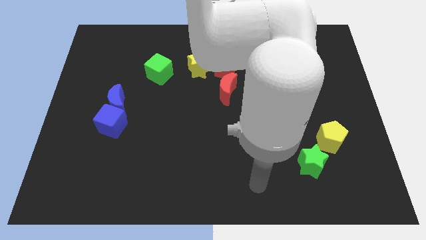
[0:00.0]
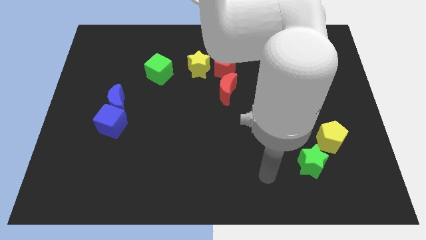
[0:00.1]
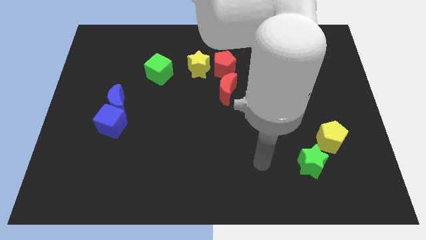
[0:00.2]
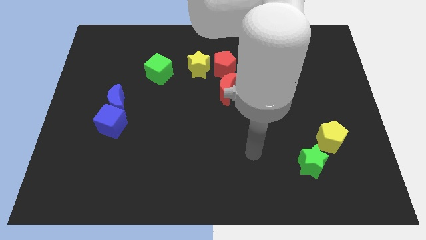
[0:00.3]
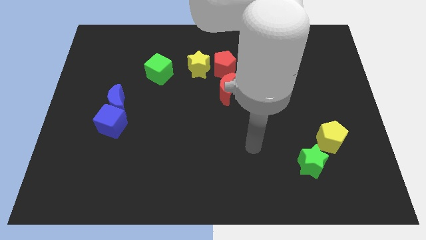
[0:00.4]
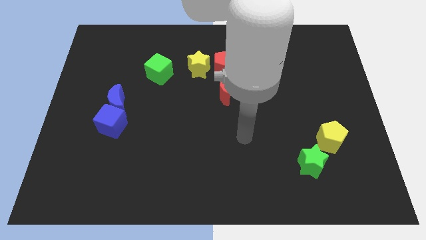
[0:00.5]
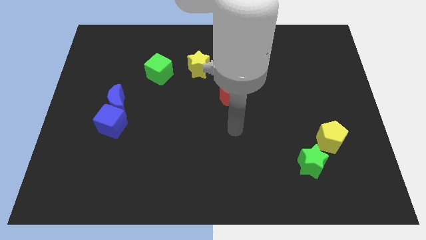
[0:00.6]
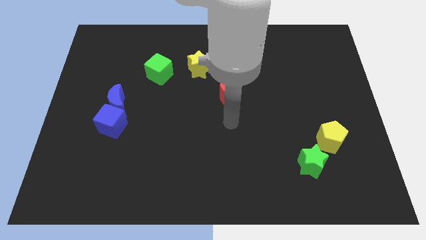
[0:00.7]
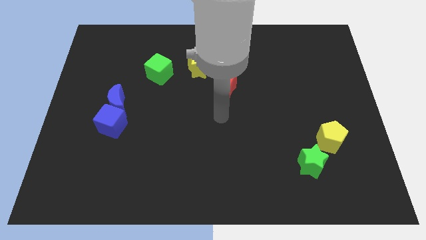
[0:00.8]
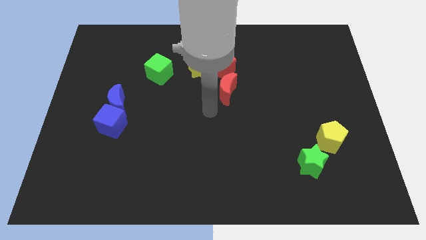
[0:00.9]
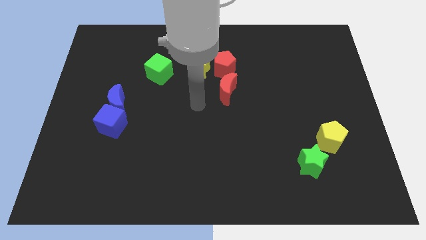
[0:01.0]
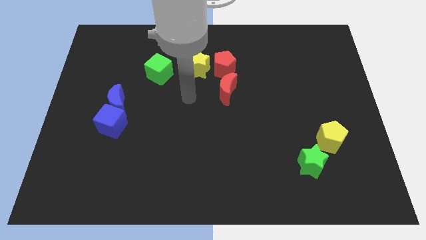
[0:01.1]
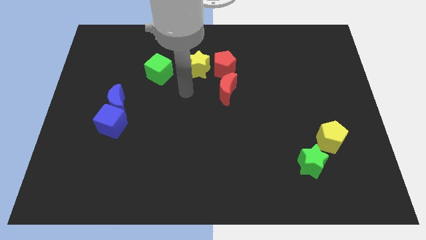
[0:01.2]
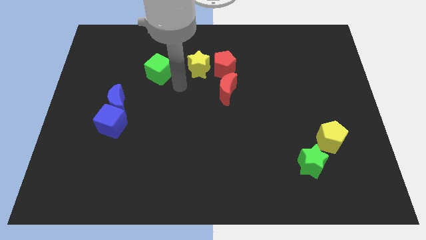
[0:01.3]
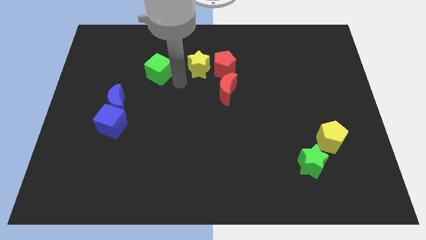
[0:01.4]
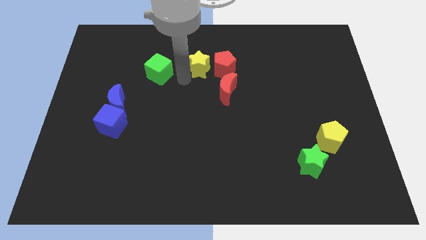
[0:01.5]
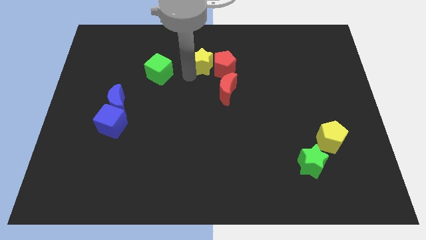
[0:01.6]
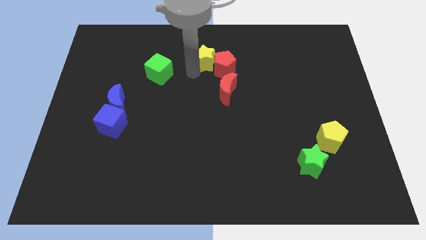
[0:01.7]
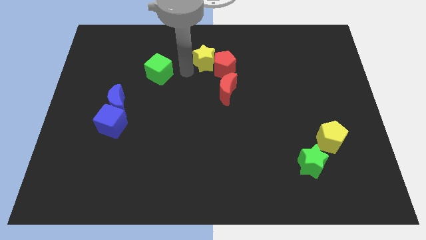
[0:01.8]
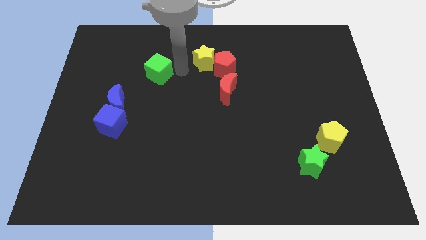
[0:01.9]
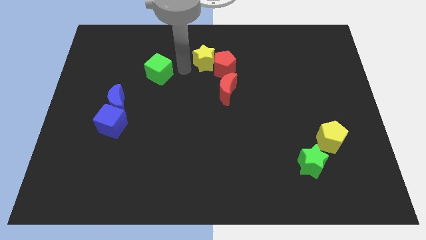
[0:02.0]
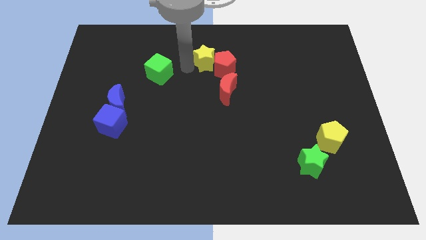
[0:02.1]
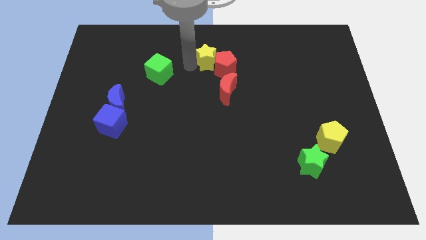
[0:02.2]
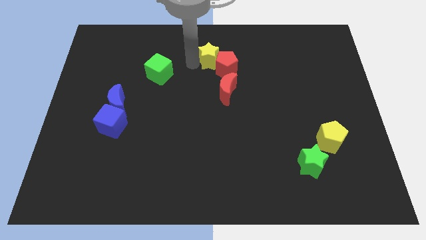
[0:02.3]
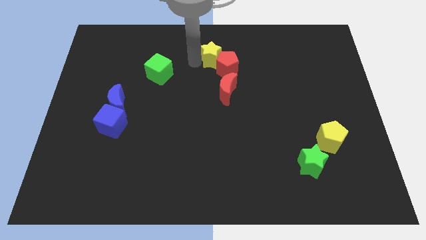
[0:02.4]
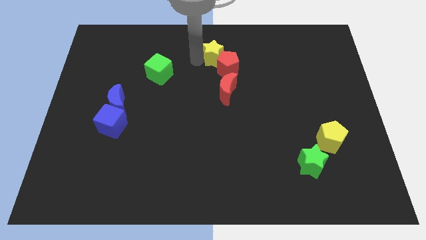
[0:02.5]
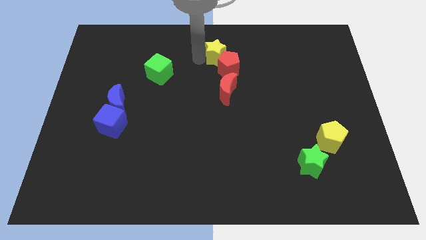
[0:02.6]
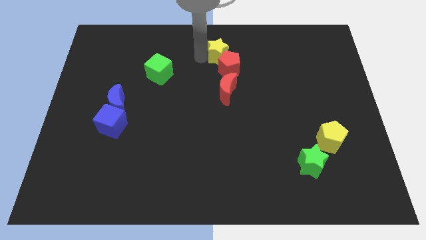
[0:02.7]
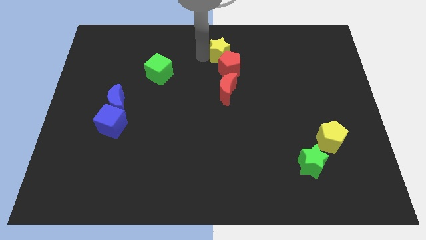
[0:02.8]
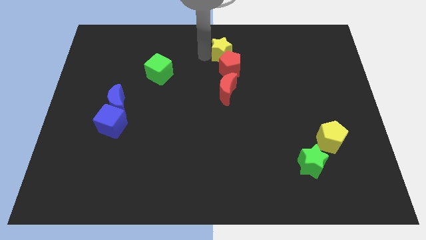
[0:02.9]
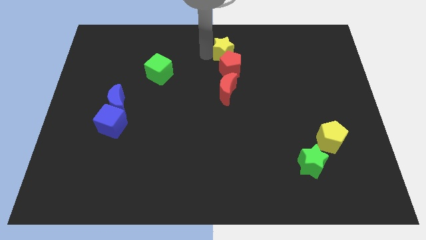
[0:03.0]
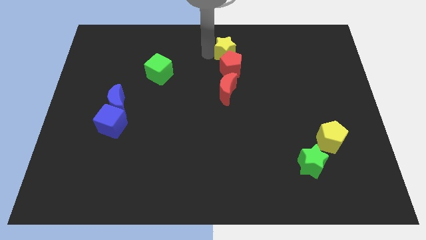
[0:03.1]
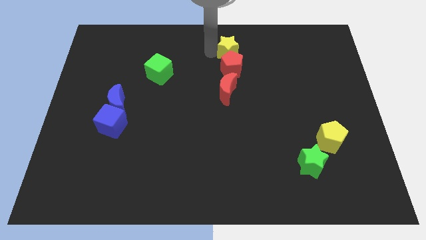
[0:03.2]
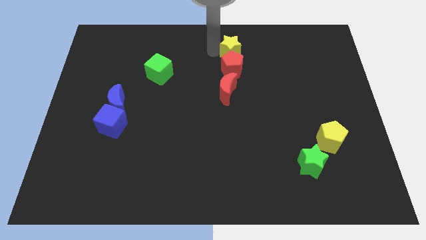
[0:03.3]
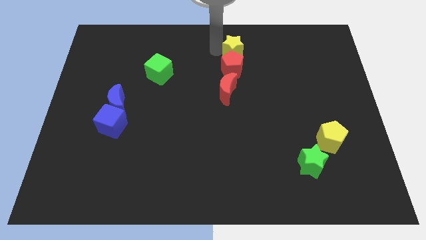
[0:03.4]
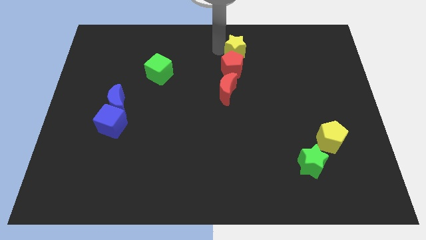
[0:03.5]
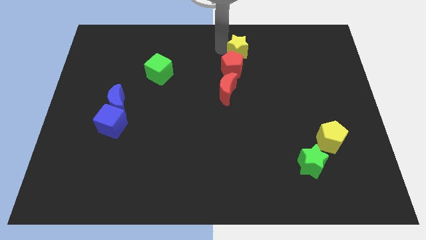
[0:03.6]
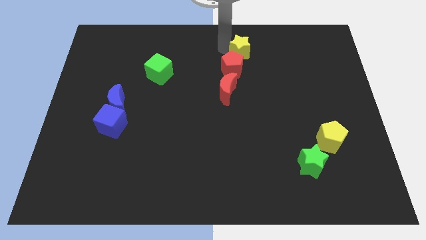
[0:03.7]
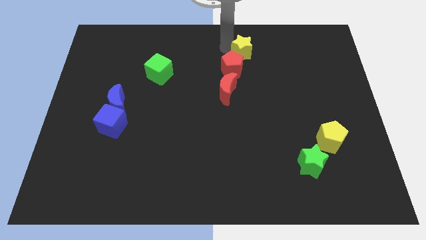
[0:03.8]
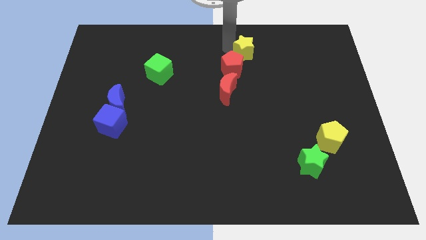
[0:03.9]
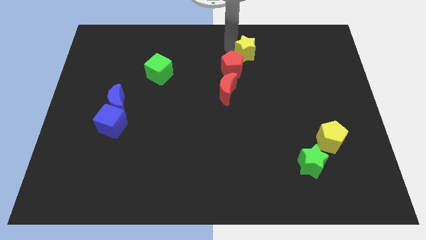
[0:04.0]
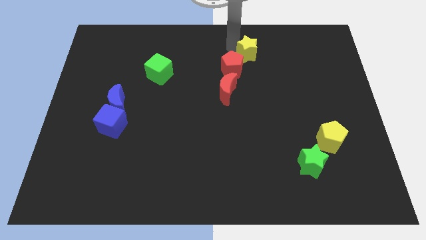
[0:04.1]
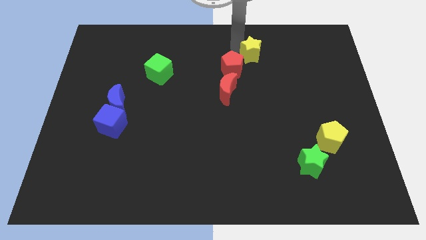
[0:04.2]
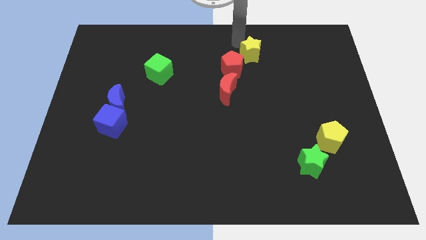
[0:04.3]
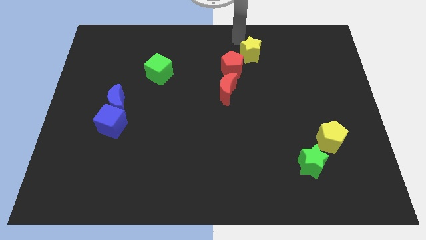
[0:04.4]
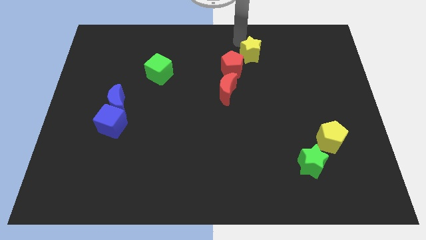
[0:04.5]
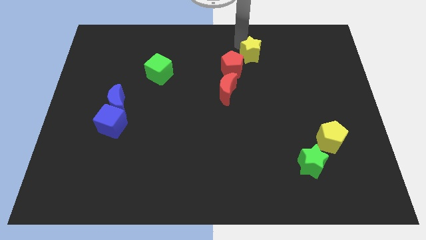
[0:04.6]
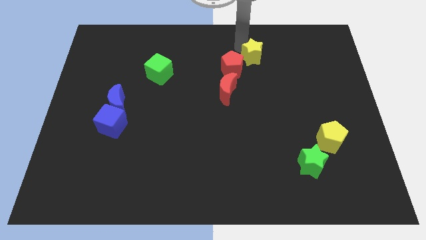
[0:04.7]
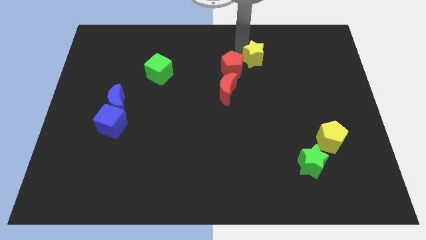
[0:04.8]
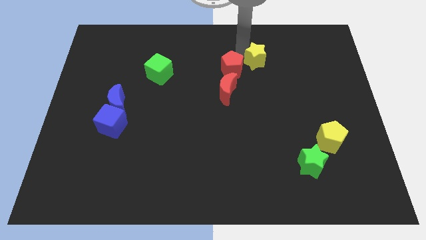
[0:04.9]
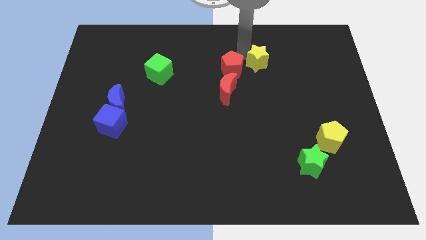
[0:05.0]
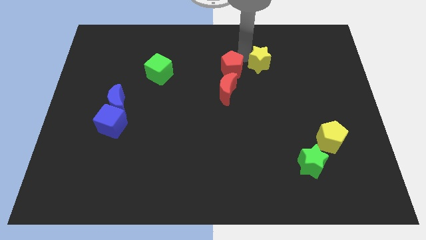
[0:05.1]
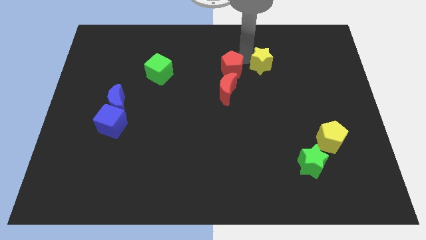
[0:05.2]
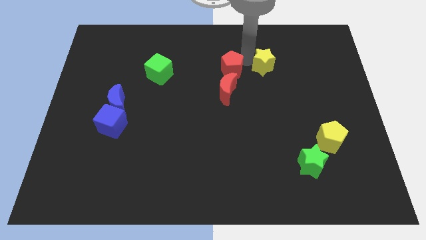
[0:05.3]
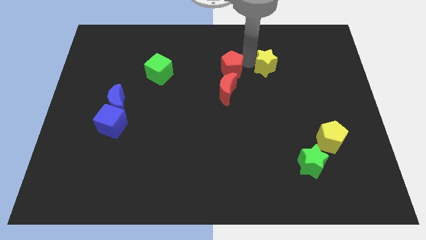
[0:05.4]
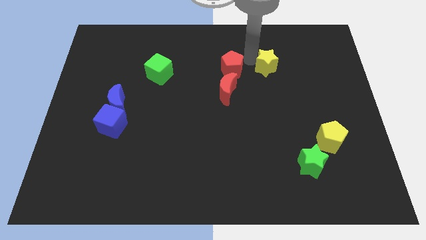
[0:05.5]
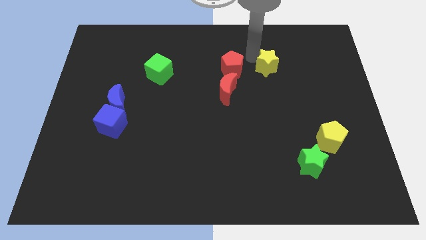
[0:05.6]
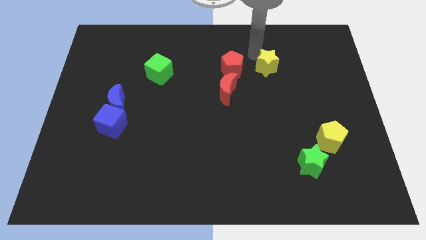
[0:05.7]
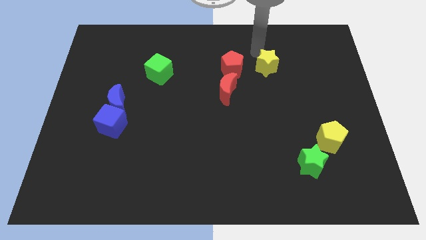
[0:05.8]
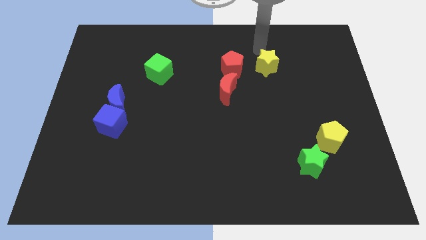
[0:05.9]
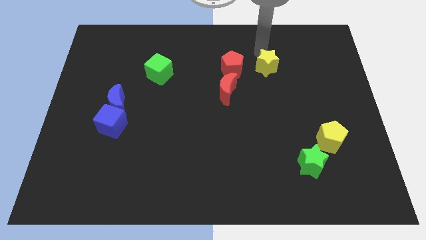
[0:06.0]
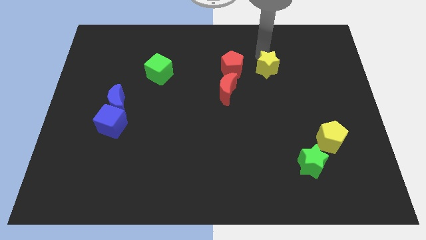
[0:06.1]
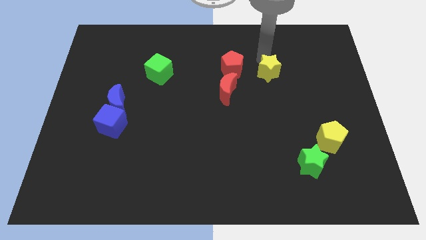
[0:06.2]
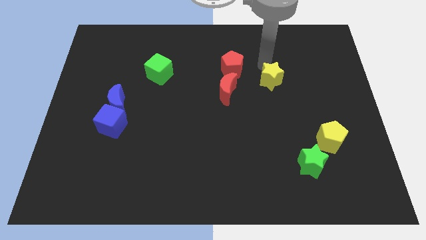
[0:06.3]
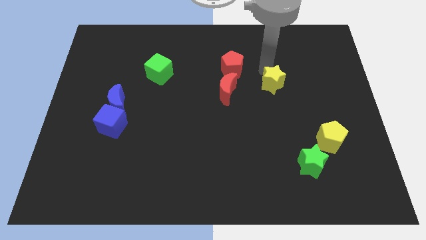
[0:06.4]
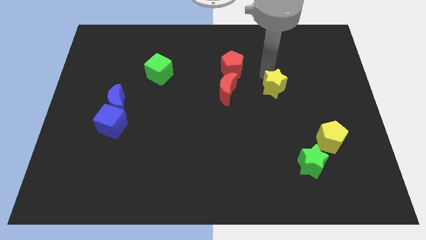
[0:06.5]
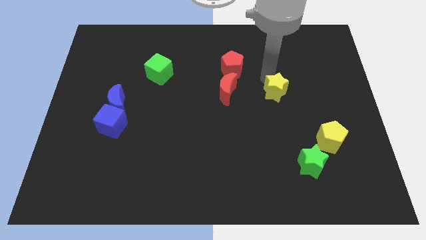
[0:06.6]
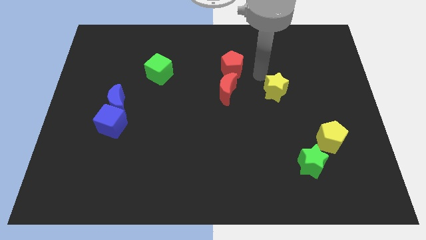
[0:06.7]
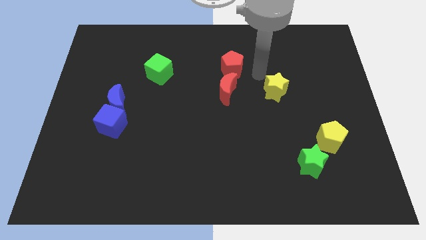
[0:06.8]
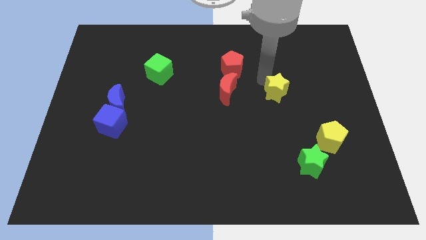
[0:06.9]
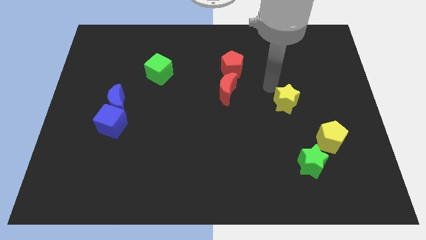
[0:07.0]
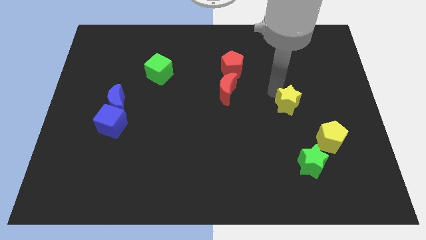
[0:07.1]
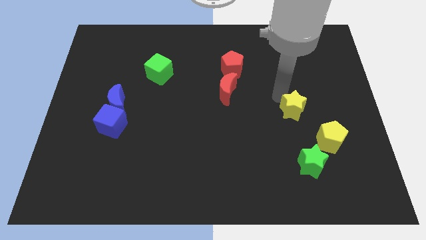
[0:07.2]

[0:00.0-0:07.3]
put the yellow star to the top left of the yellow pentagon

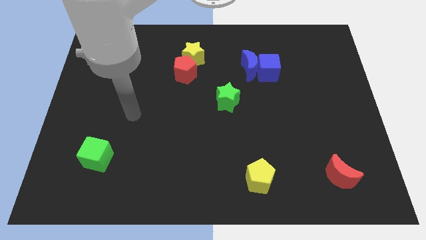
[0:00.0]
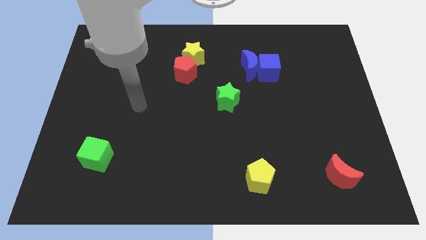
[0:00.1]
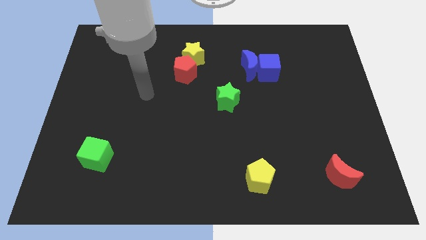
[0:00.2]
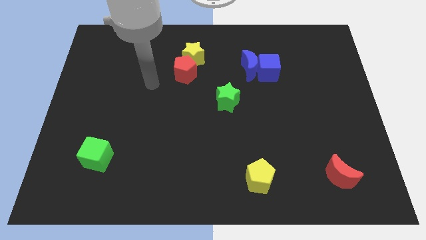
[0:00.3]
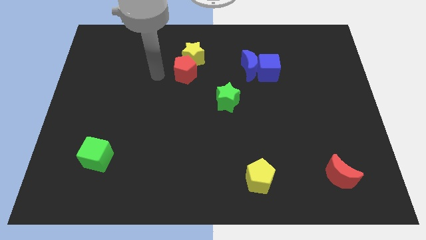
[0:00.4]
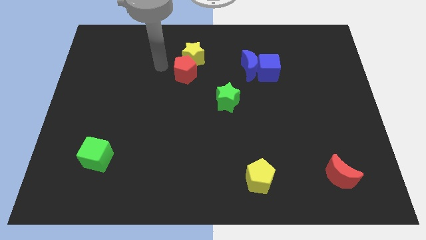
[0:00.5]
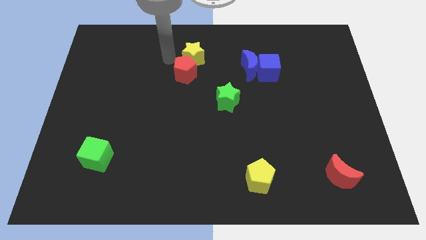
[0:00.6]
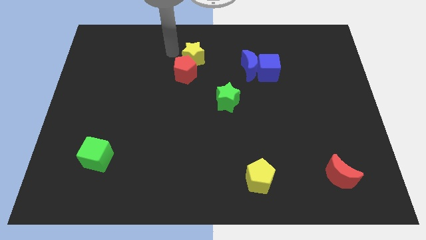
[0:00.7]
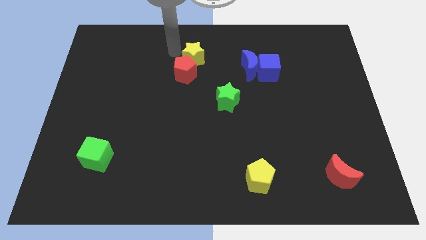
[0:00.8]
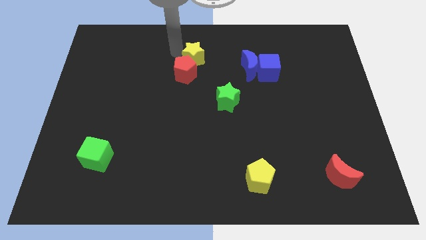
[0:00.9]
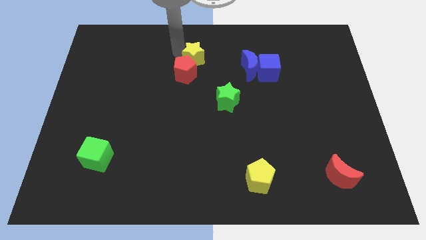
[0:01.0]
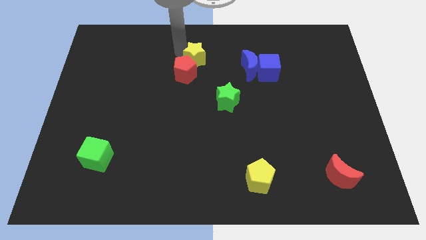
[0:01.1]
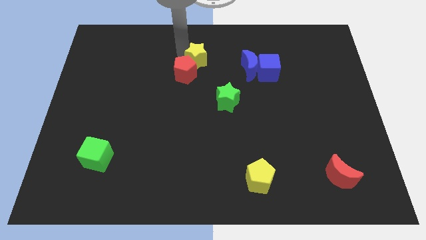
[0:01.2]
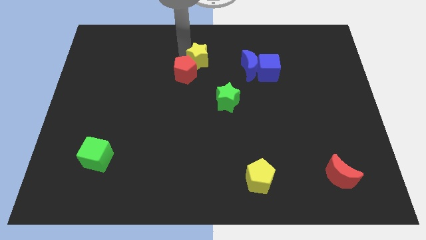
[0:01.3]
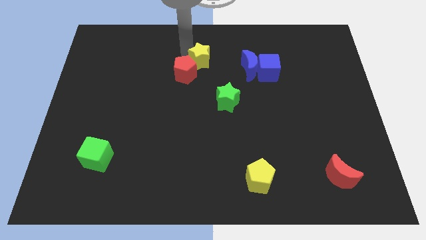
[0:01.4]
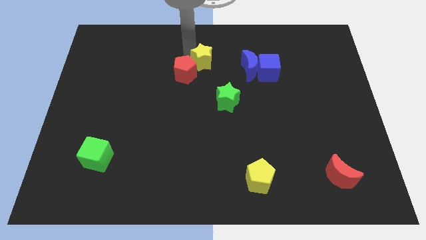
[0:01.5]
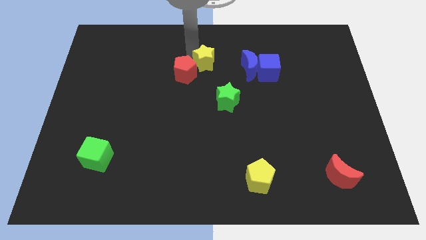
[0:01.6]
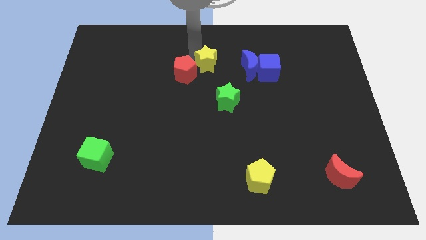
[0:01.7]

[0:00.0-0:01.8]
move the yellow star to the top side of the green star
